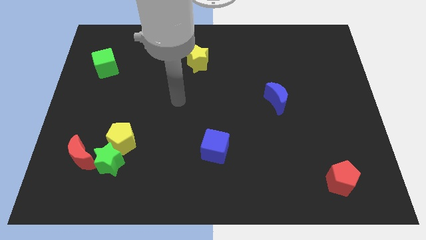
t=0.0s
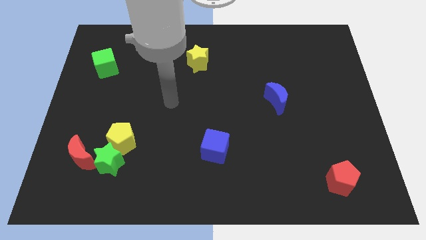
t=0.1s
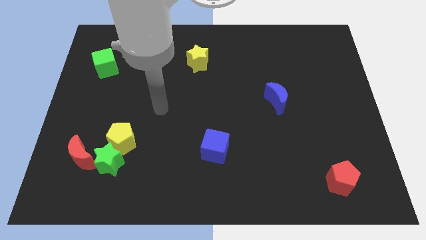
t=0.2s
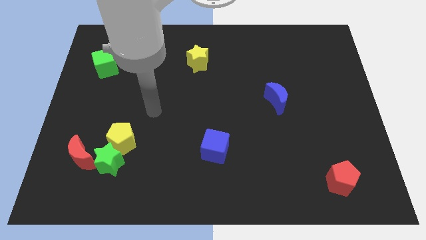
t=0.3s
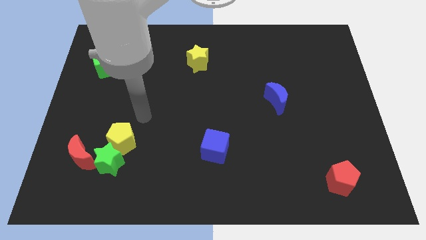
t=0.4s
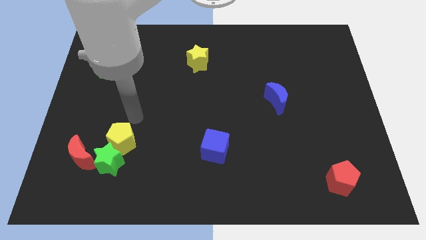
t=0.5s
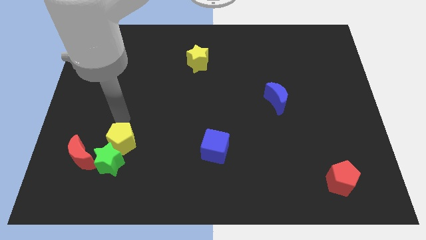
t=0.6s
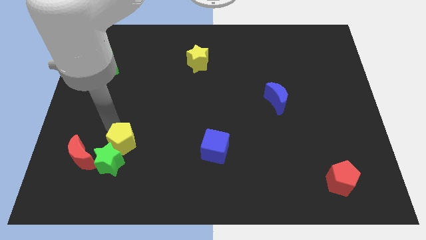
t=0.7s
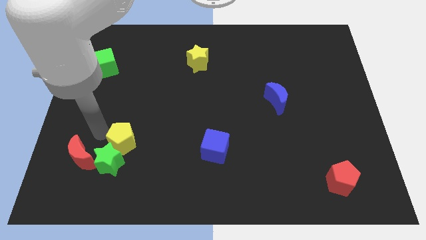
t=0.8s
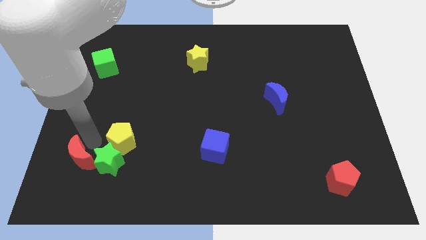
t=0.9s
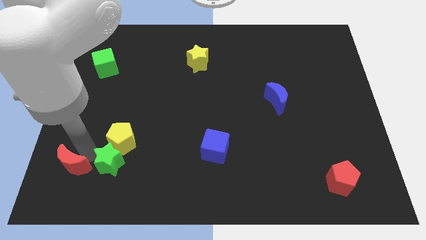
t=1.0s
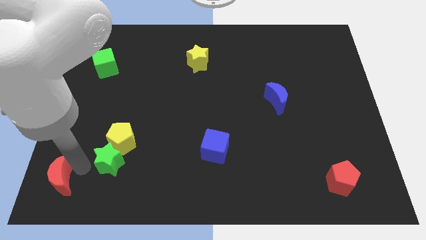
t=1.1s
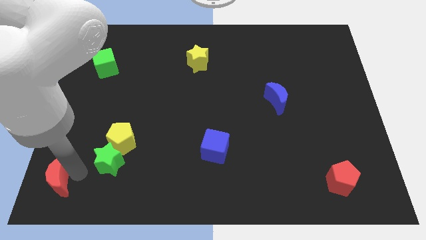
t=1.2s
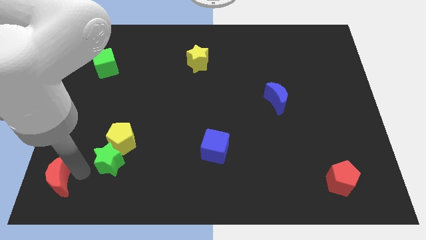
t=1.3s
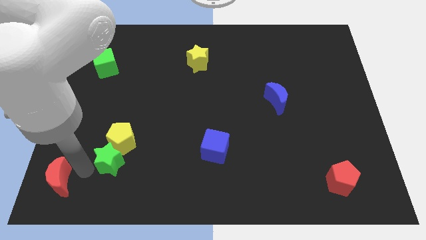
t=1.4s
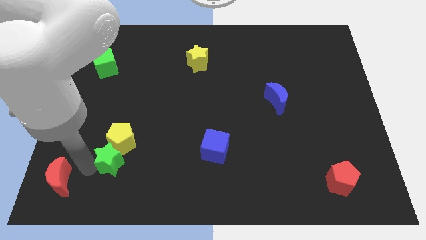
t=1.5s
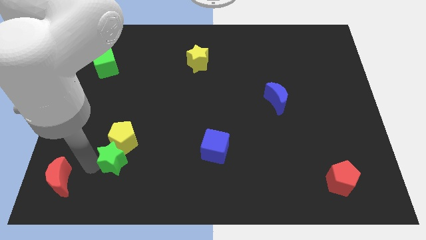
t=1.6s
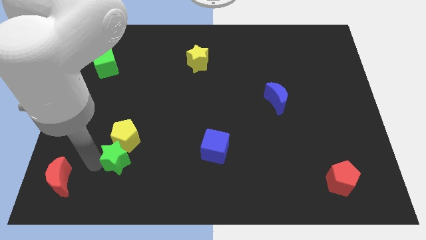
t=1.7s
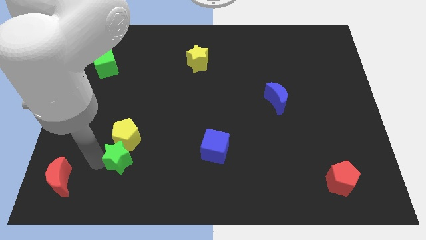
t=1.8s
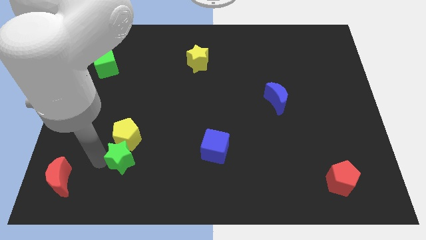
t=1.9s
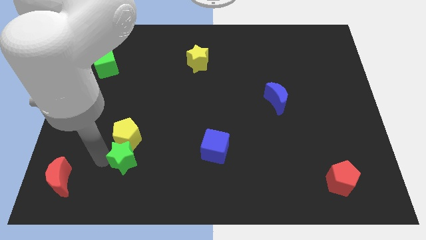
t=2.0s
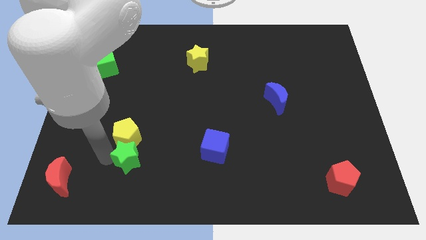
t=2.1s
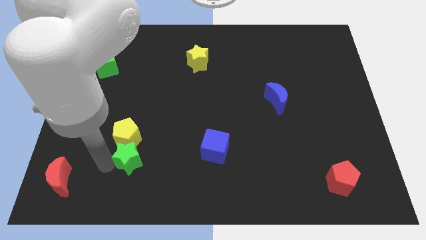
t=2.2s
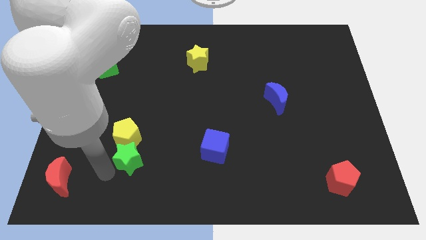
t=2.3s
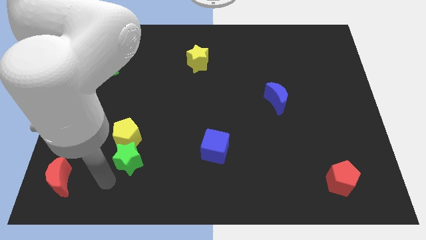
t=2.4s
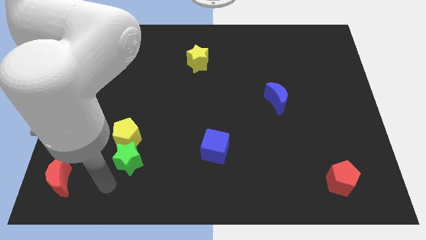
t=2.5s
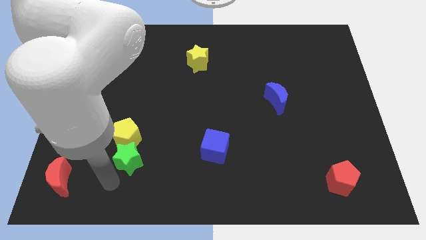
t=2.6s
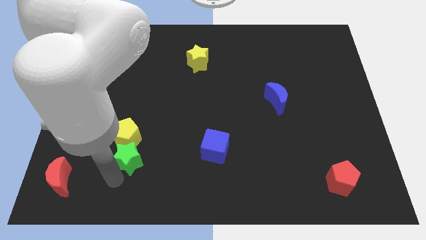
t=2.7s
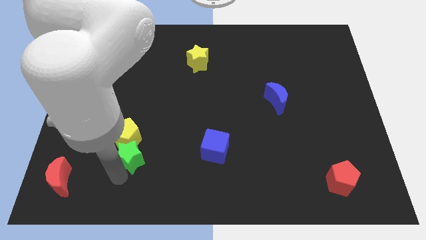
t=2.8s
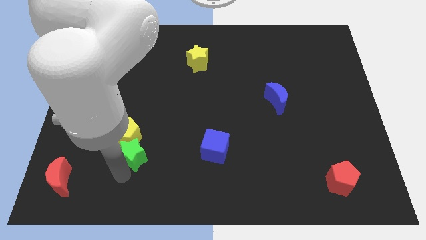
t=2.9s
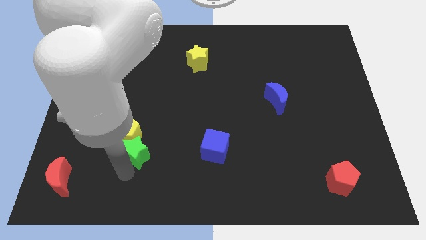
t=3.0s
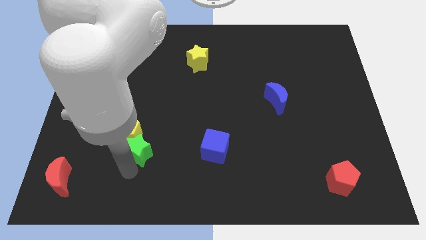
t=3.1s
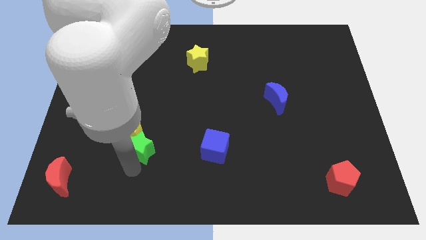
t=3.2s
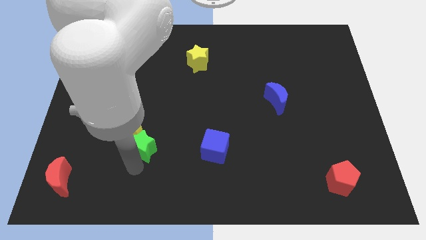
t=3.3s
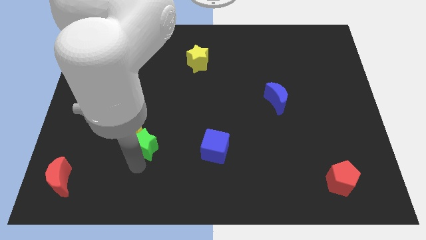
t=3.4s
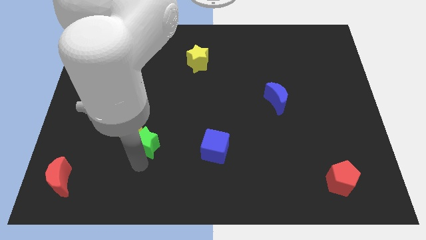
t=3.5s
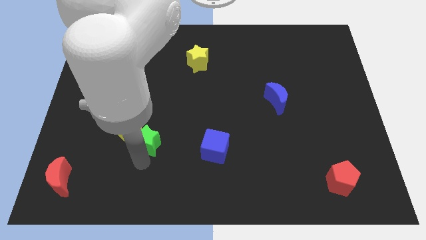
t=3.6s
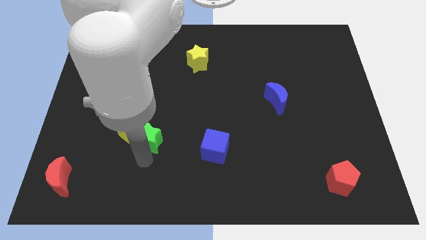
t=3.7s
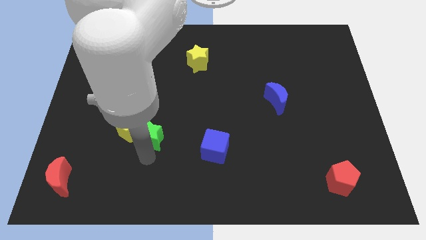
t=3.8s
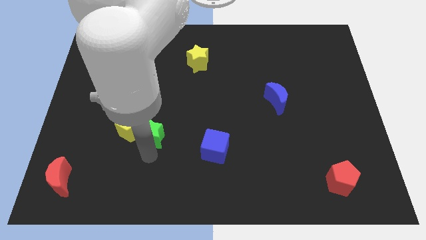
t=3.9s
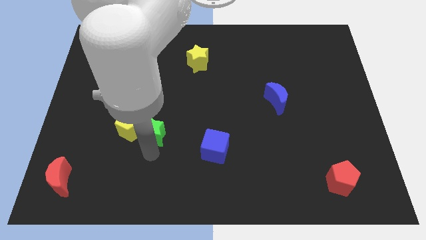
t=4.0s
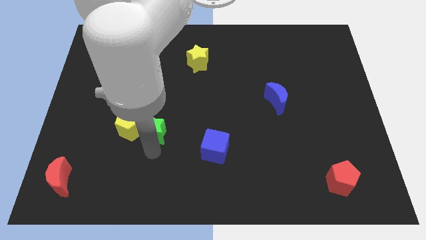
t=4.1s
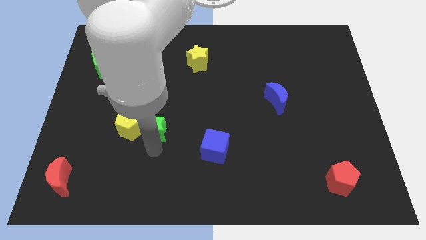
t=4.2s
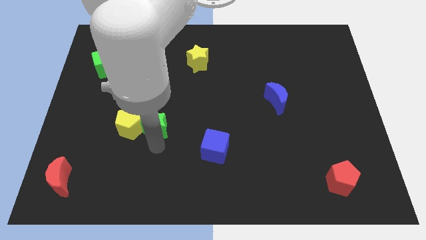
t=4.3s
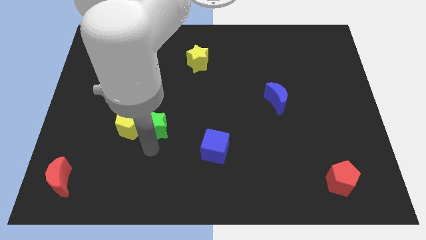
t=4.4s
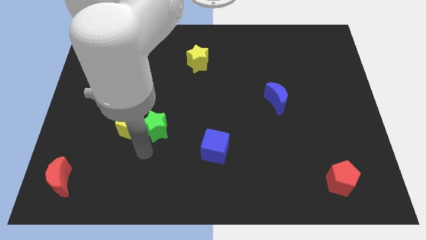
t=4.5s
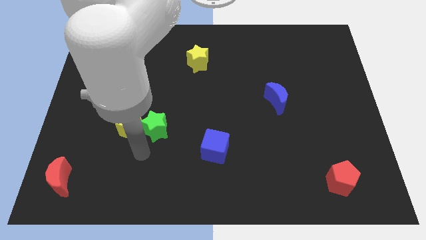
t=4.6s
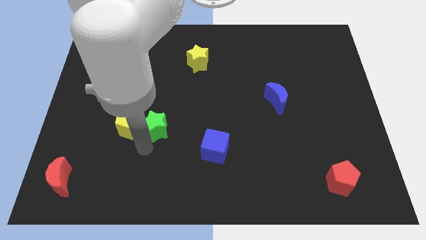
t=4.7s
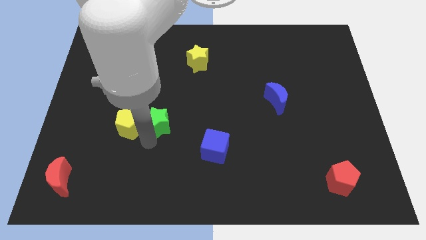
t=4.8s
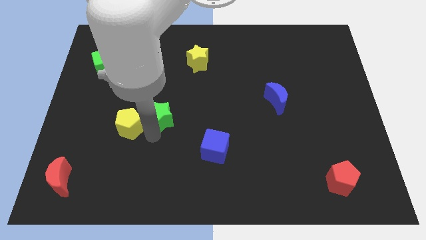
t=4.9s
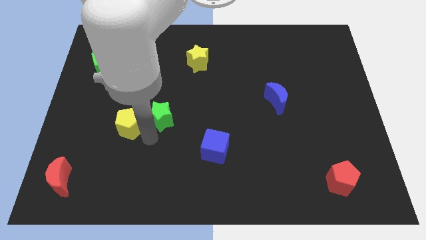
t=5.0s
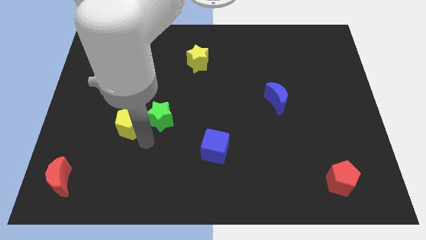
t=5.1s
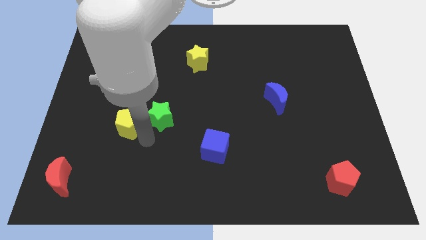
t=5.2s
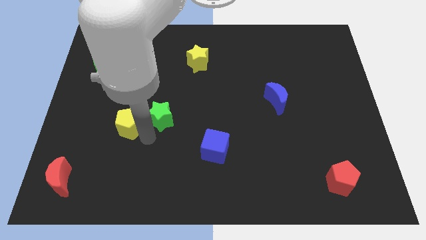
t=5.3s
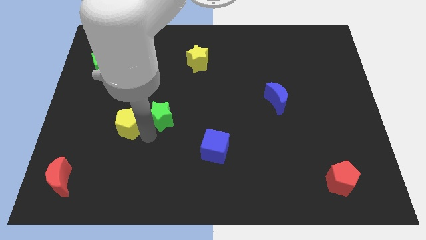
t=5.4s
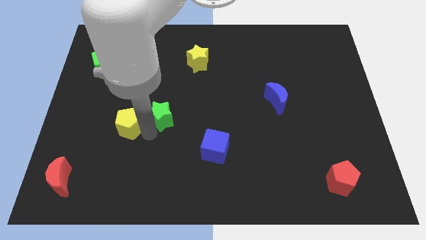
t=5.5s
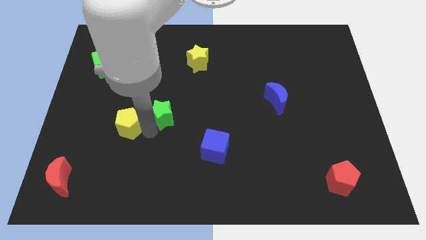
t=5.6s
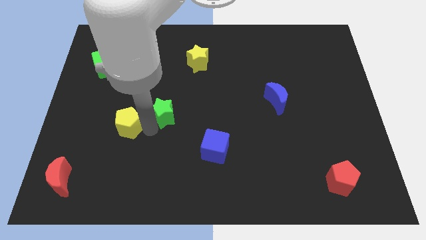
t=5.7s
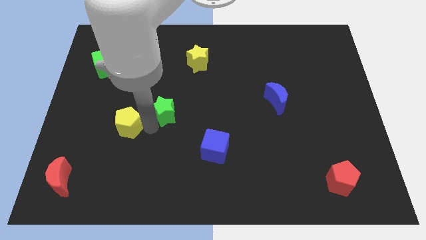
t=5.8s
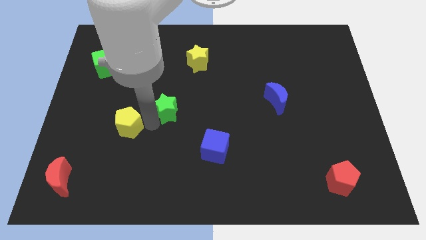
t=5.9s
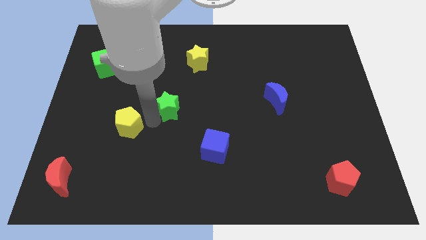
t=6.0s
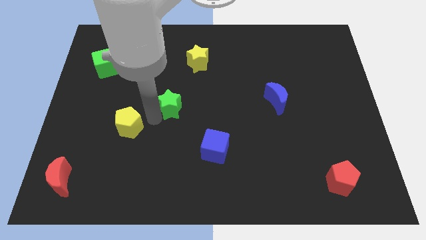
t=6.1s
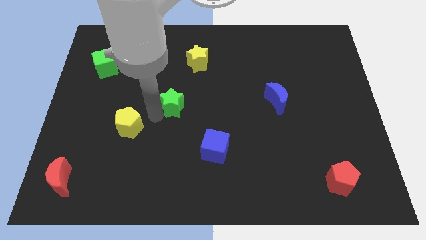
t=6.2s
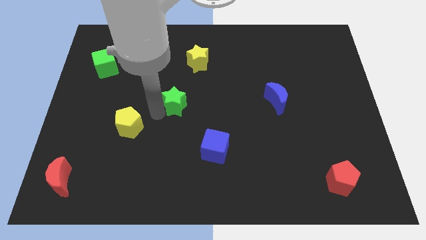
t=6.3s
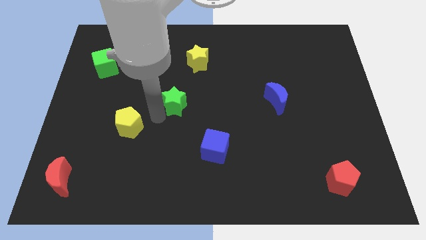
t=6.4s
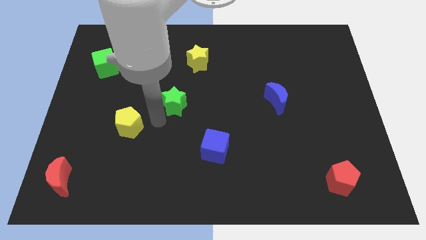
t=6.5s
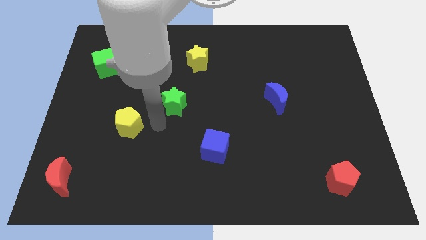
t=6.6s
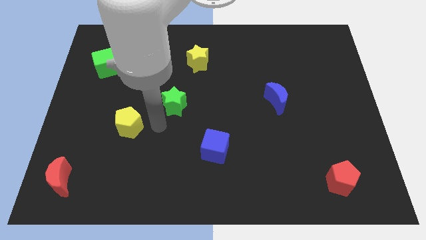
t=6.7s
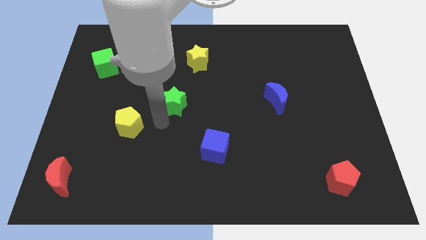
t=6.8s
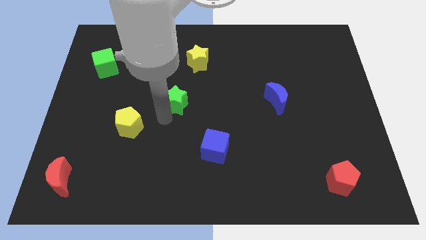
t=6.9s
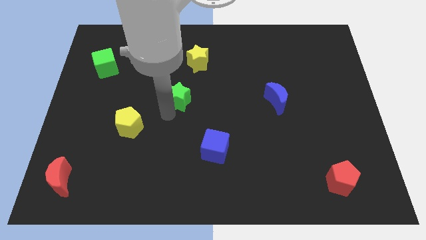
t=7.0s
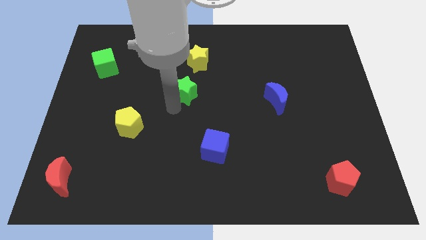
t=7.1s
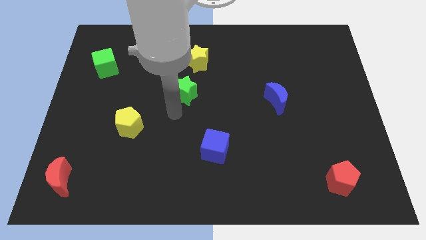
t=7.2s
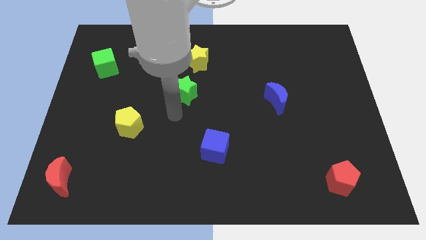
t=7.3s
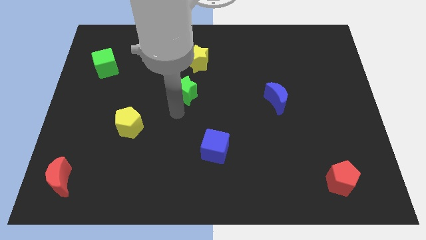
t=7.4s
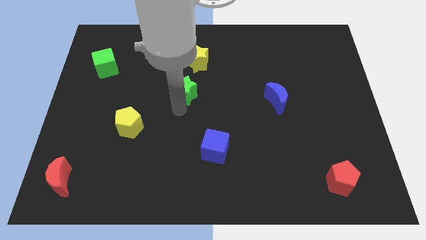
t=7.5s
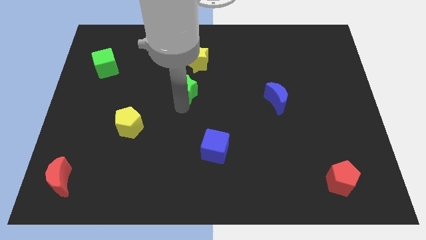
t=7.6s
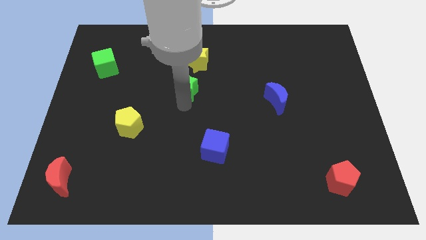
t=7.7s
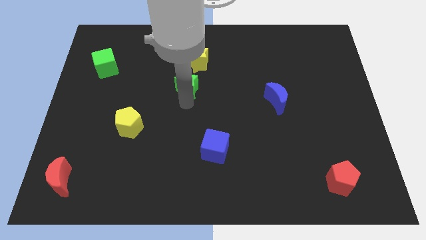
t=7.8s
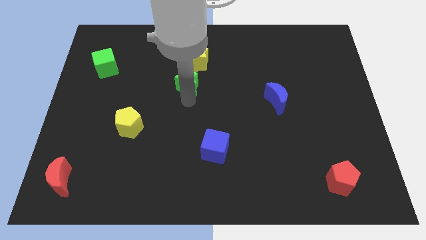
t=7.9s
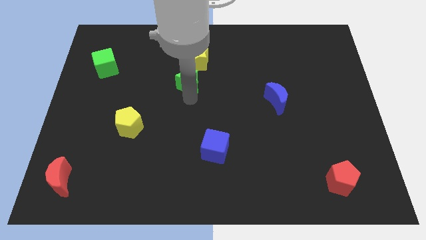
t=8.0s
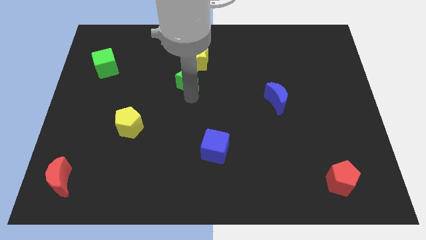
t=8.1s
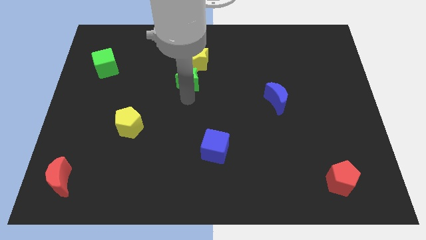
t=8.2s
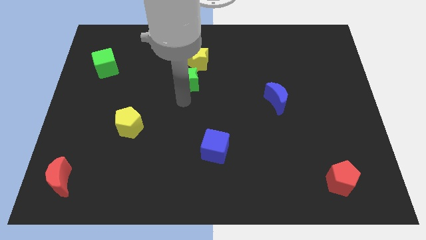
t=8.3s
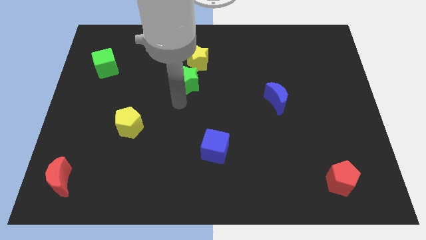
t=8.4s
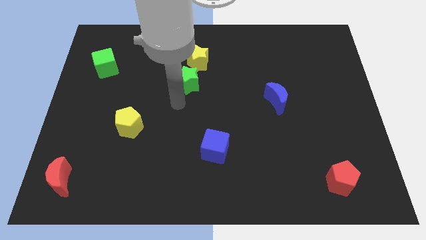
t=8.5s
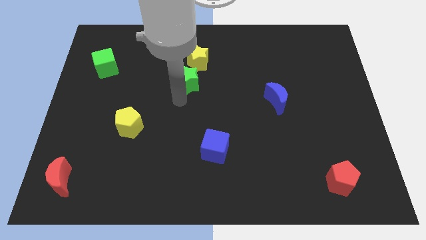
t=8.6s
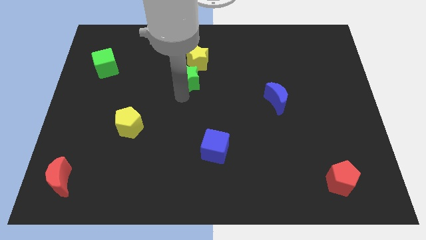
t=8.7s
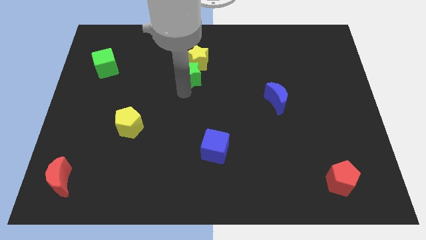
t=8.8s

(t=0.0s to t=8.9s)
push the green star close to the yellow star
